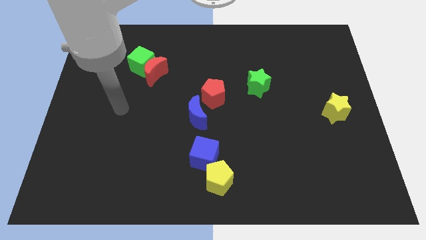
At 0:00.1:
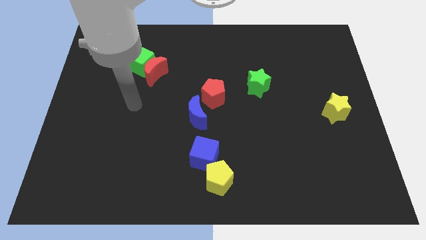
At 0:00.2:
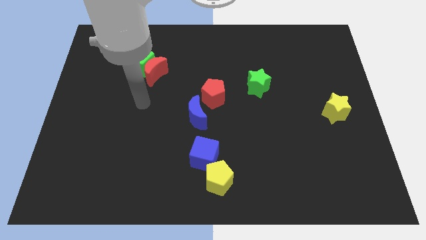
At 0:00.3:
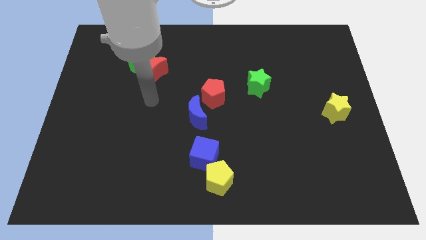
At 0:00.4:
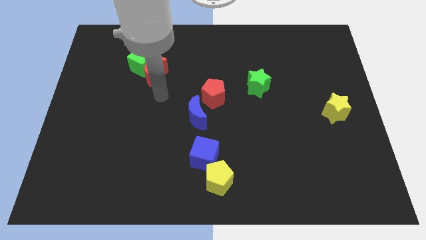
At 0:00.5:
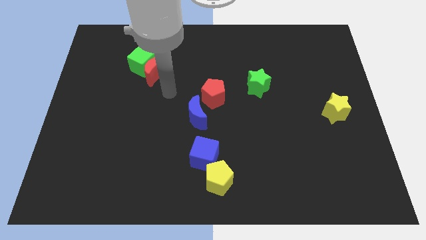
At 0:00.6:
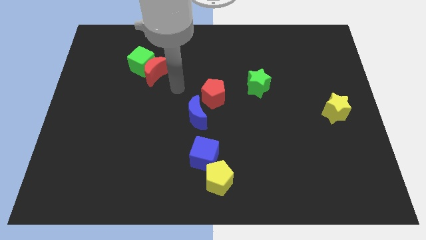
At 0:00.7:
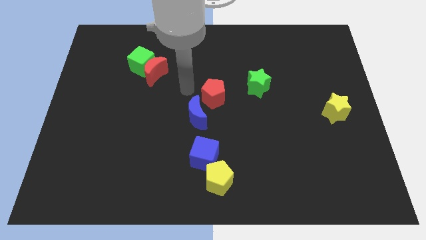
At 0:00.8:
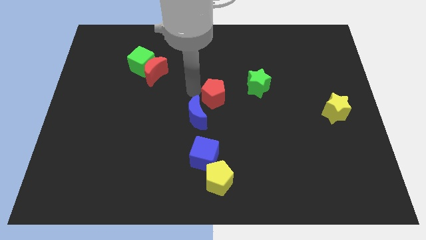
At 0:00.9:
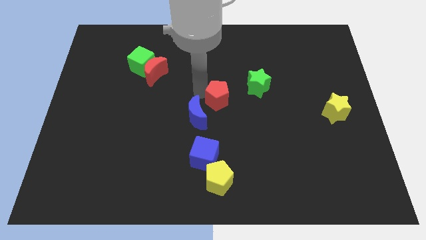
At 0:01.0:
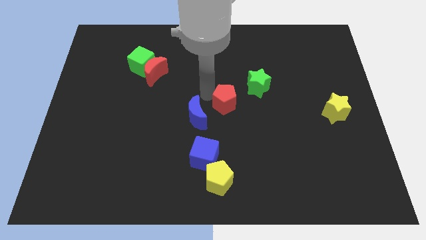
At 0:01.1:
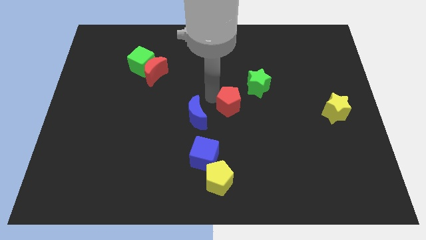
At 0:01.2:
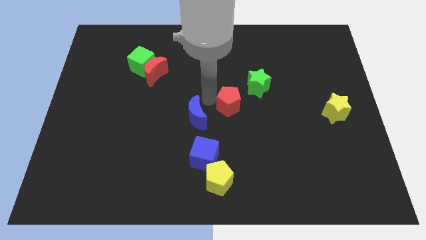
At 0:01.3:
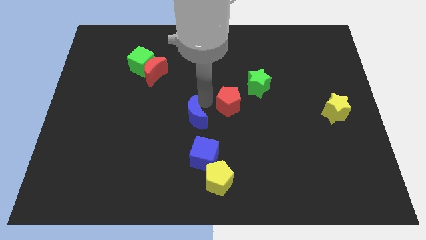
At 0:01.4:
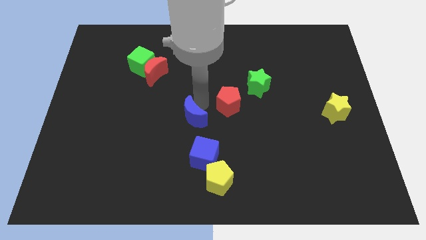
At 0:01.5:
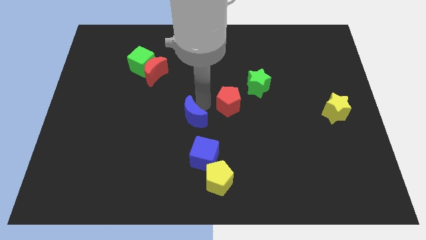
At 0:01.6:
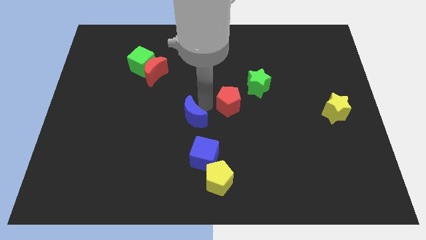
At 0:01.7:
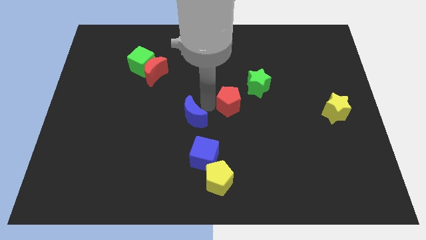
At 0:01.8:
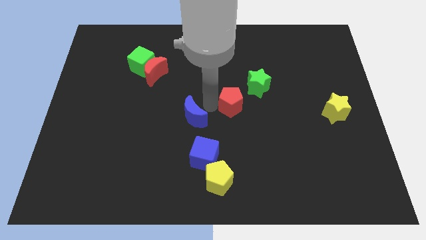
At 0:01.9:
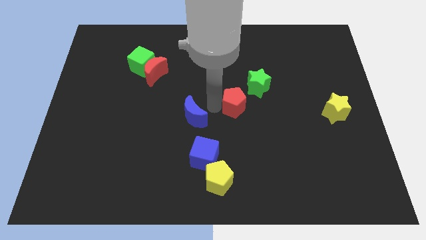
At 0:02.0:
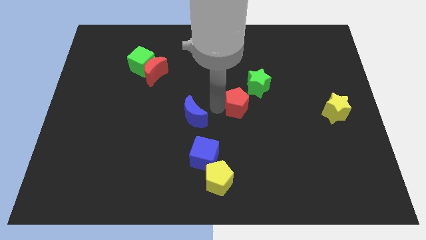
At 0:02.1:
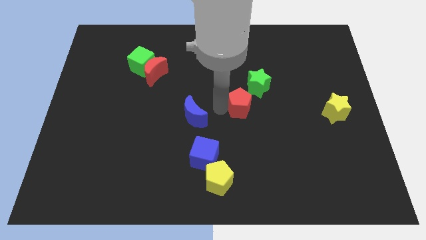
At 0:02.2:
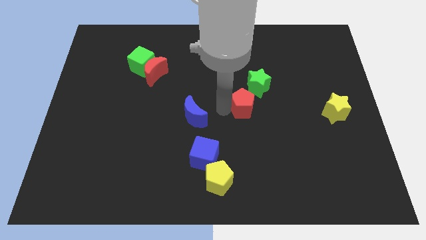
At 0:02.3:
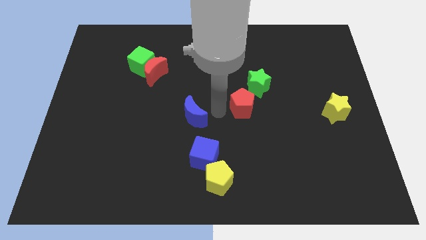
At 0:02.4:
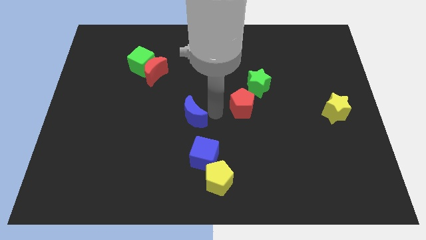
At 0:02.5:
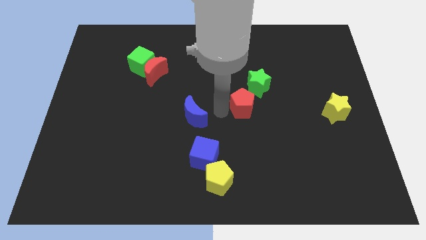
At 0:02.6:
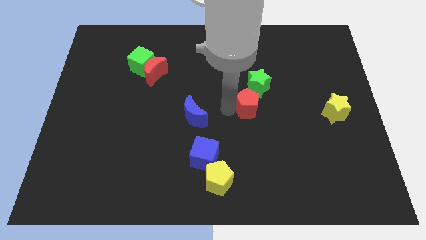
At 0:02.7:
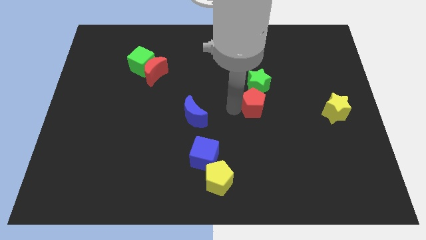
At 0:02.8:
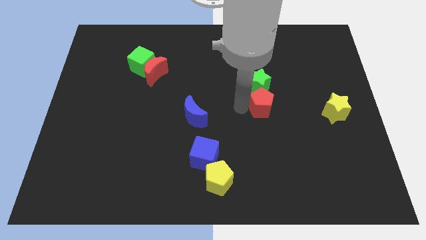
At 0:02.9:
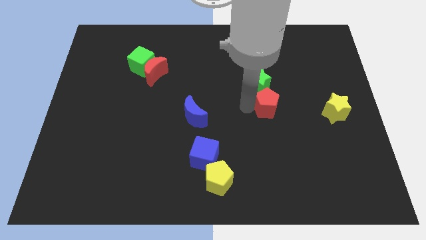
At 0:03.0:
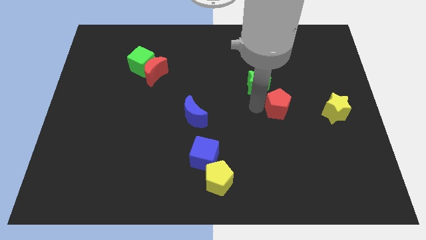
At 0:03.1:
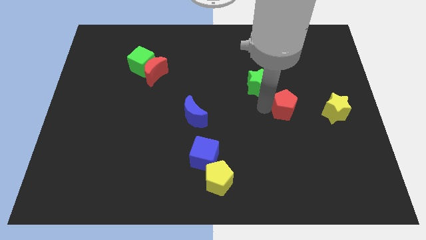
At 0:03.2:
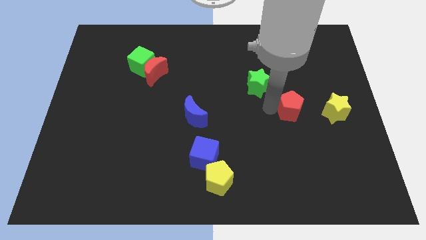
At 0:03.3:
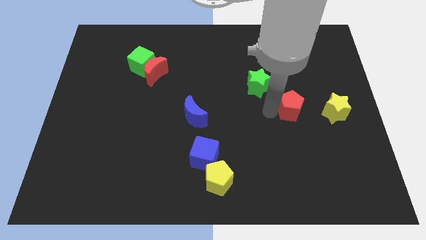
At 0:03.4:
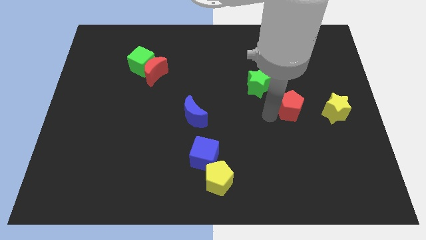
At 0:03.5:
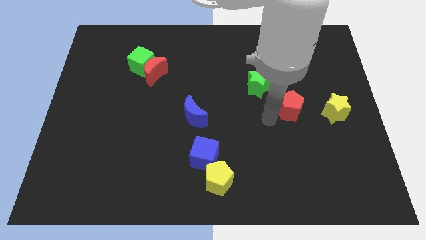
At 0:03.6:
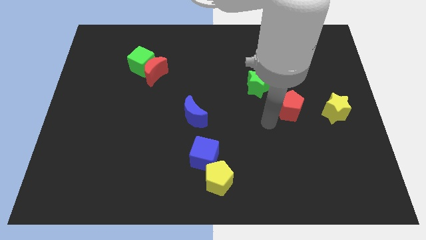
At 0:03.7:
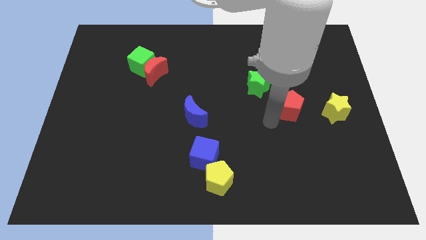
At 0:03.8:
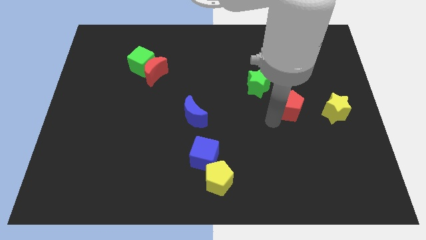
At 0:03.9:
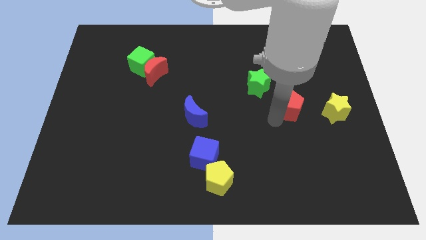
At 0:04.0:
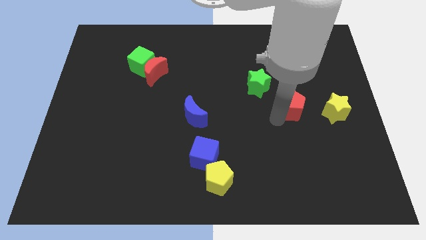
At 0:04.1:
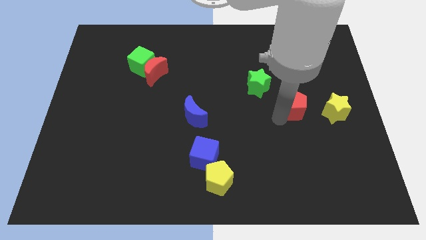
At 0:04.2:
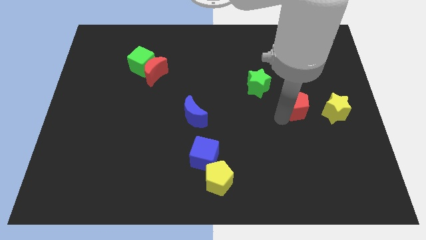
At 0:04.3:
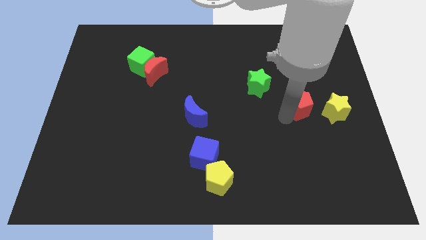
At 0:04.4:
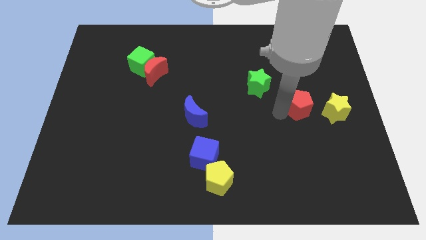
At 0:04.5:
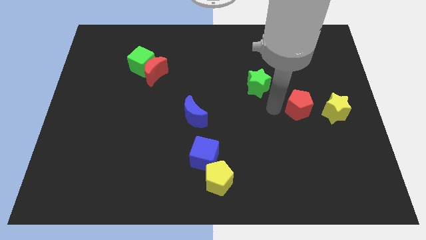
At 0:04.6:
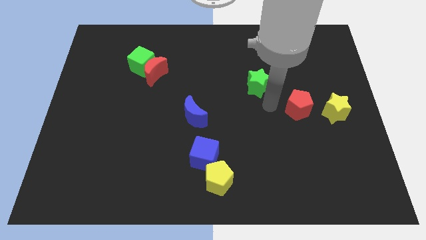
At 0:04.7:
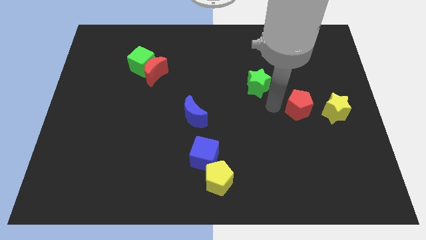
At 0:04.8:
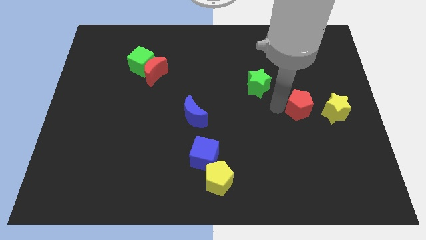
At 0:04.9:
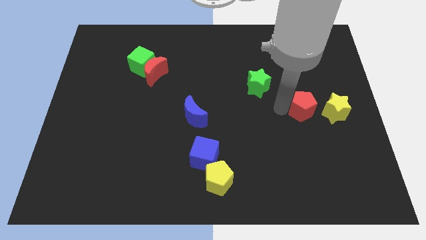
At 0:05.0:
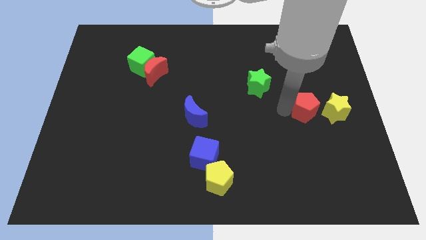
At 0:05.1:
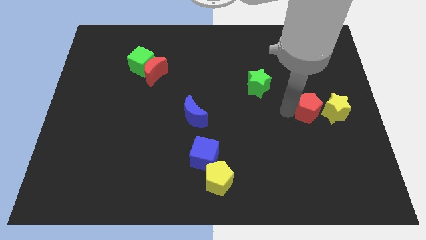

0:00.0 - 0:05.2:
put the red pentagon next to the yellow star

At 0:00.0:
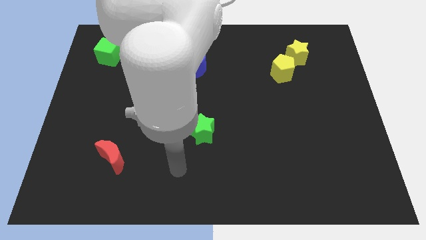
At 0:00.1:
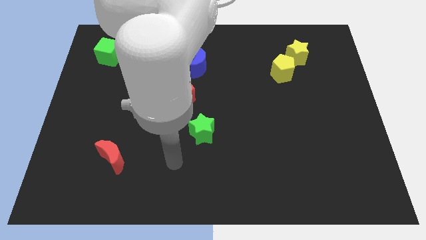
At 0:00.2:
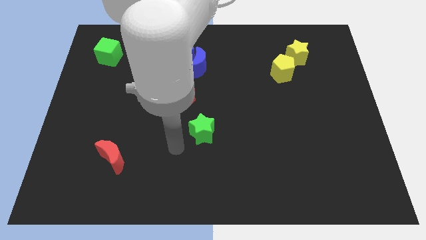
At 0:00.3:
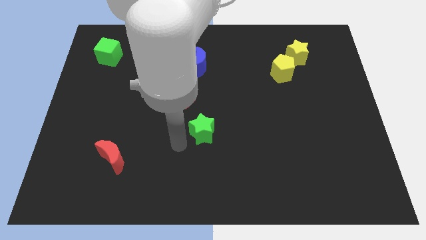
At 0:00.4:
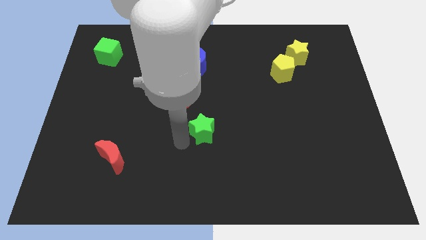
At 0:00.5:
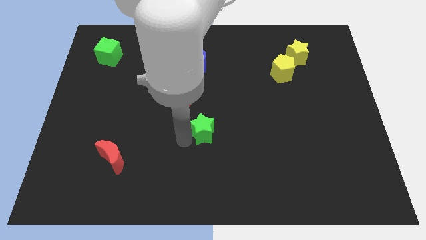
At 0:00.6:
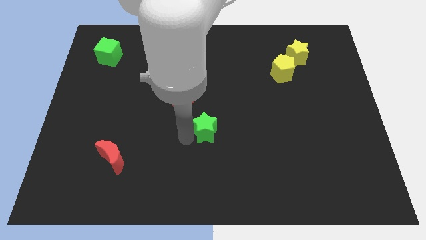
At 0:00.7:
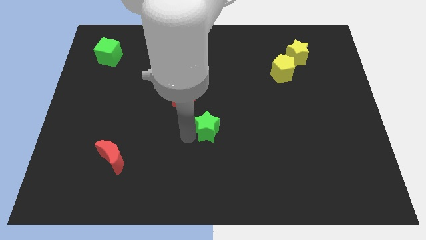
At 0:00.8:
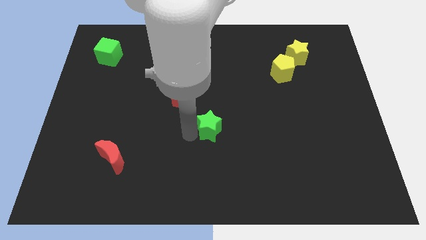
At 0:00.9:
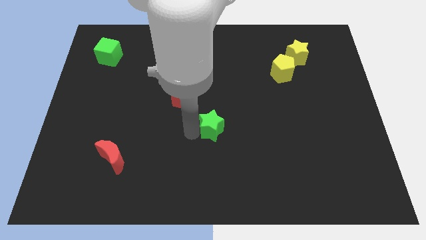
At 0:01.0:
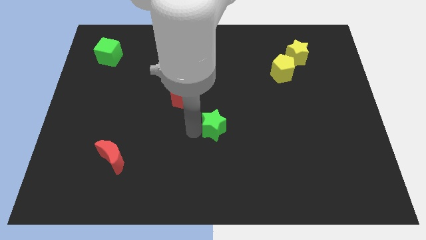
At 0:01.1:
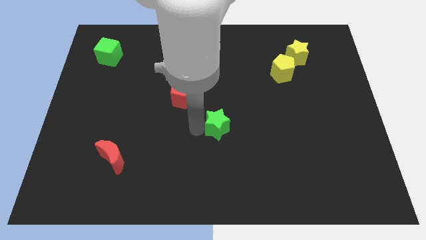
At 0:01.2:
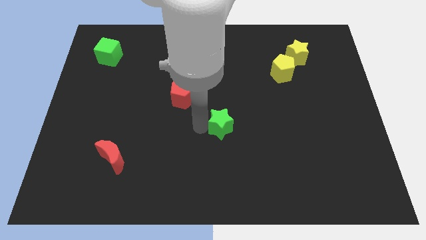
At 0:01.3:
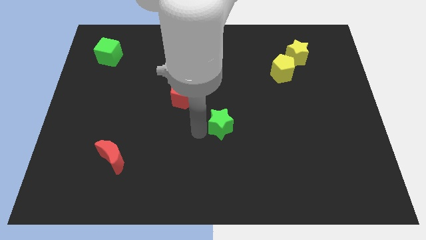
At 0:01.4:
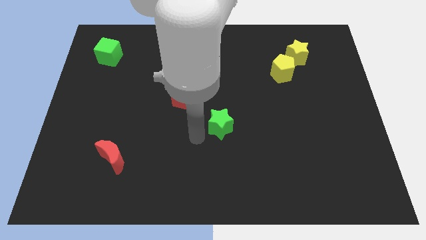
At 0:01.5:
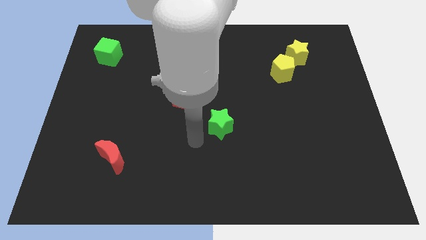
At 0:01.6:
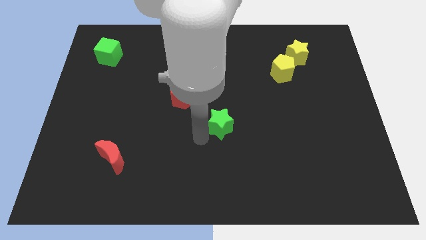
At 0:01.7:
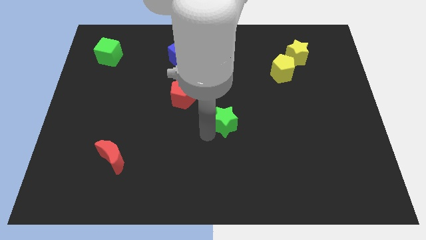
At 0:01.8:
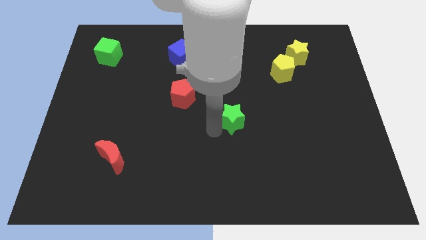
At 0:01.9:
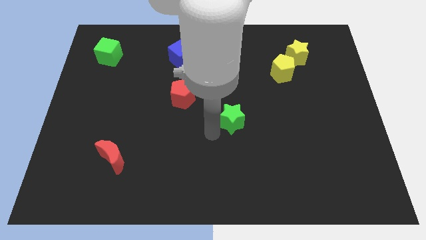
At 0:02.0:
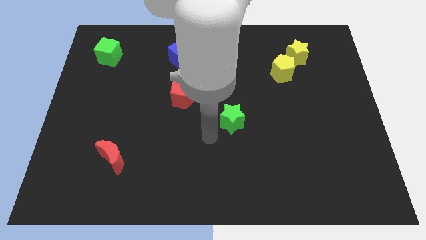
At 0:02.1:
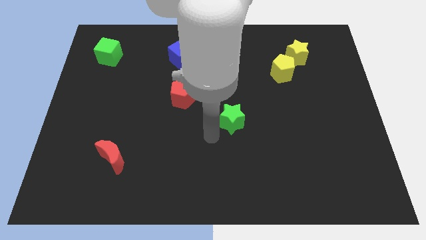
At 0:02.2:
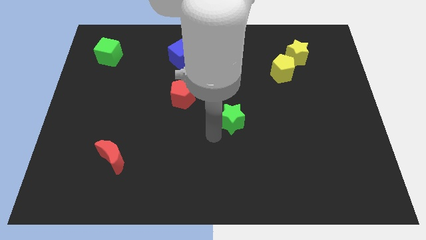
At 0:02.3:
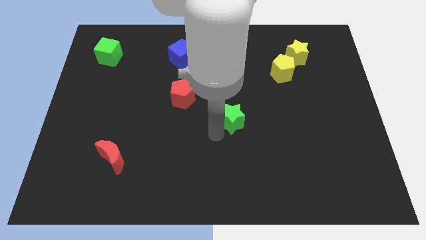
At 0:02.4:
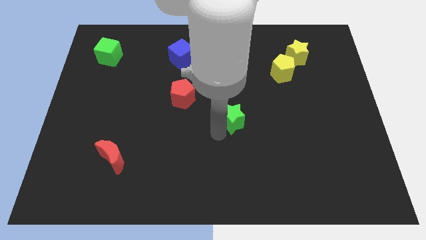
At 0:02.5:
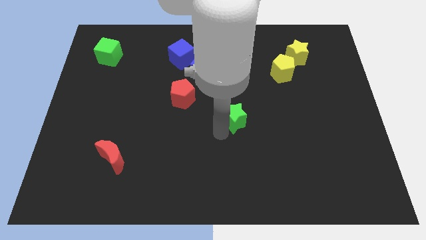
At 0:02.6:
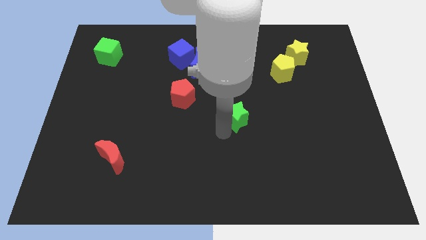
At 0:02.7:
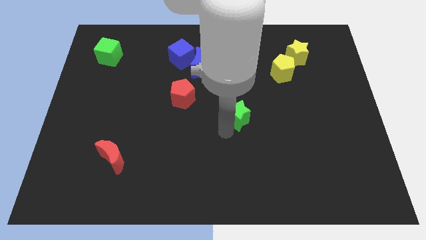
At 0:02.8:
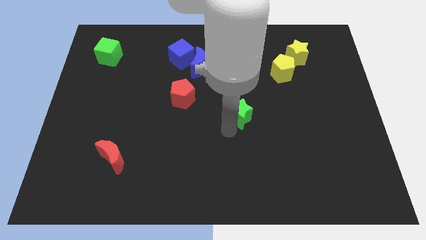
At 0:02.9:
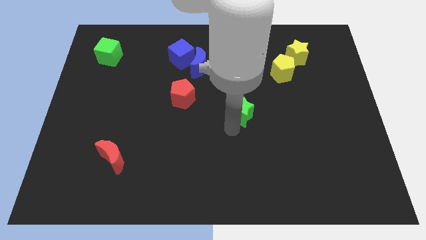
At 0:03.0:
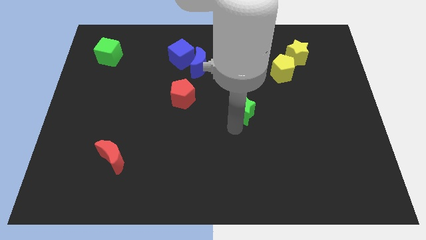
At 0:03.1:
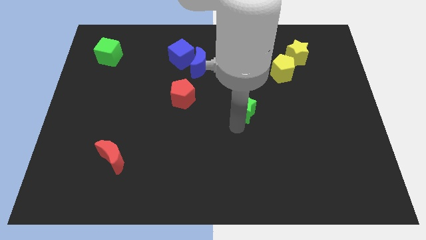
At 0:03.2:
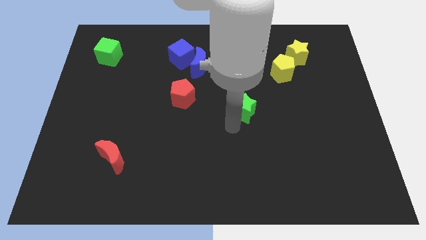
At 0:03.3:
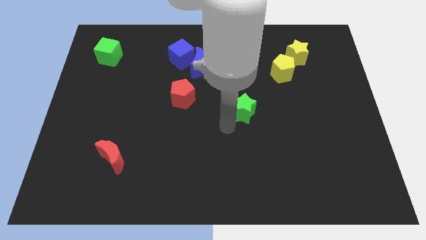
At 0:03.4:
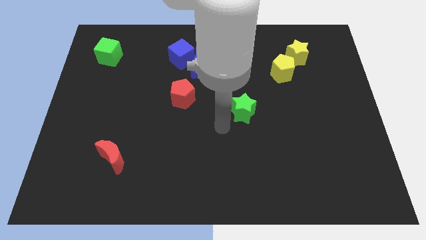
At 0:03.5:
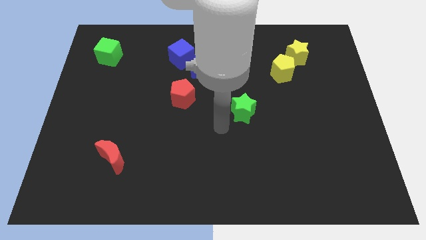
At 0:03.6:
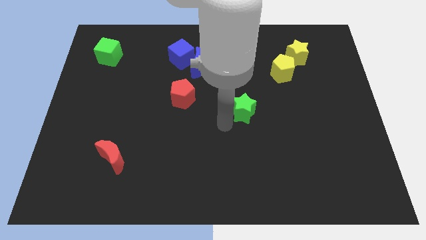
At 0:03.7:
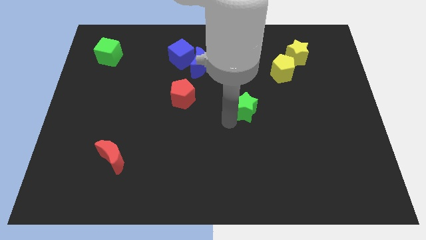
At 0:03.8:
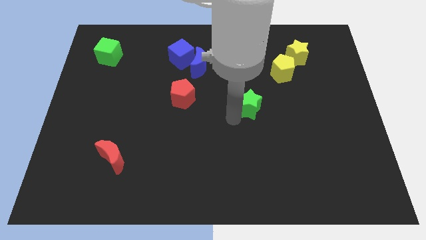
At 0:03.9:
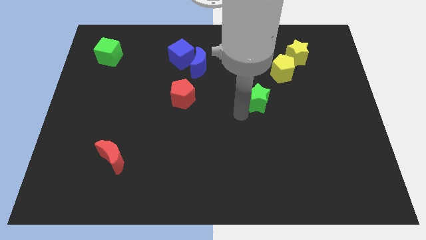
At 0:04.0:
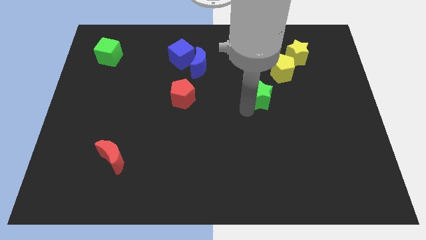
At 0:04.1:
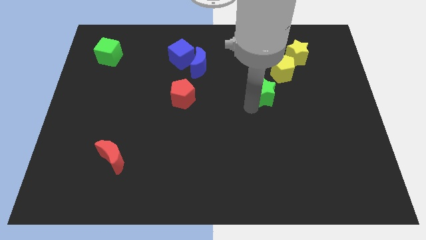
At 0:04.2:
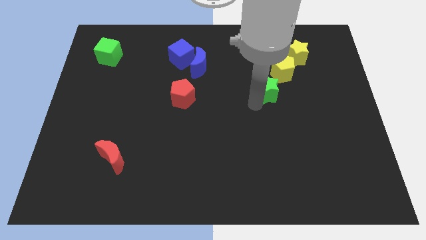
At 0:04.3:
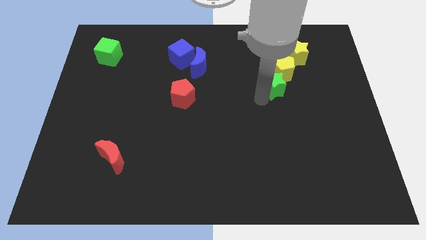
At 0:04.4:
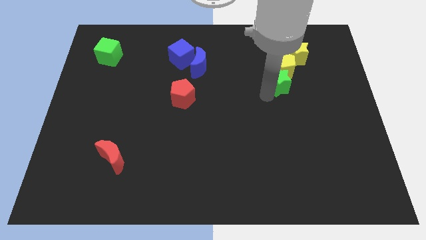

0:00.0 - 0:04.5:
push the green star to the yellow pentagon
